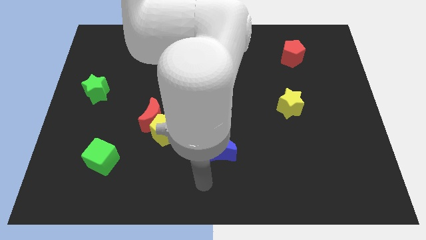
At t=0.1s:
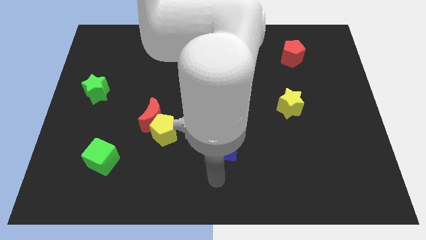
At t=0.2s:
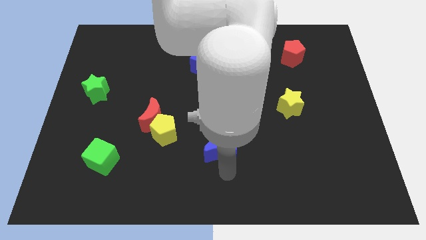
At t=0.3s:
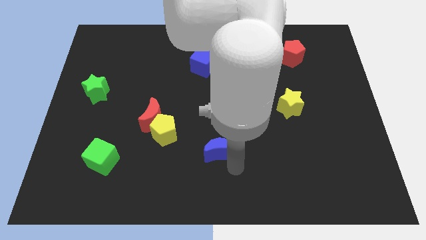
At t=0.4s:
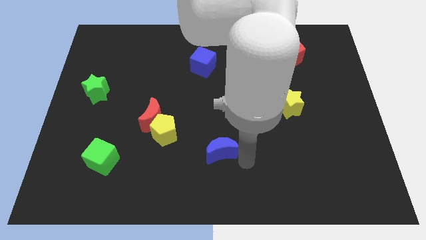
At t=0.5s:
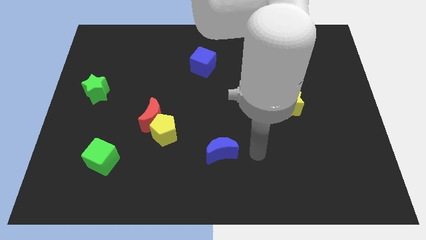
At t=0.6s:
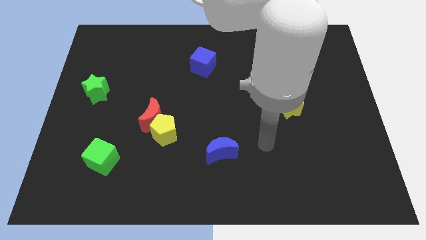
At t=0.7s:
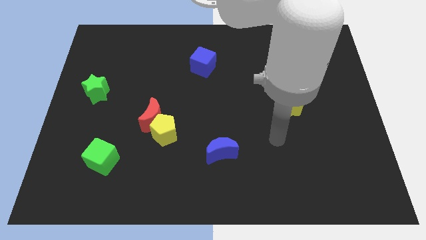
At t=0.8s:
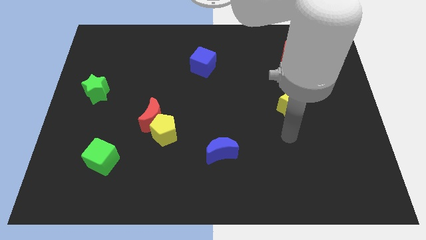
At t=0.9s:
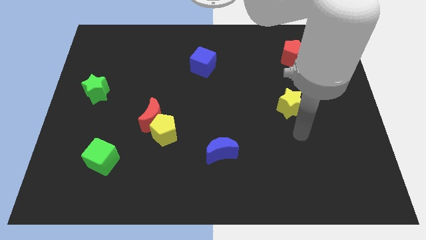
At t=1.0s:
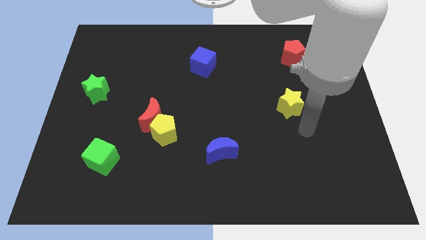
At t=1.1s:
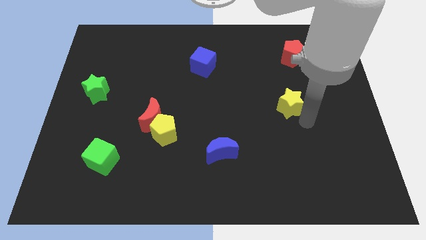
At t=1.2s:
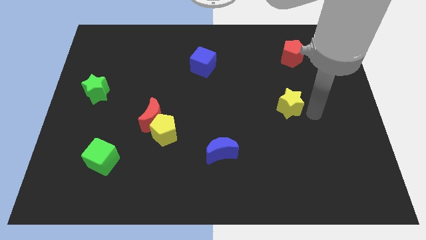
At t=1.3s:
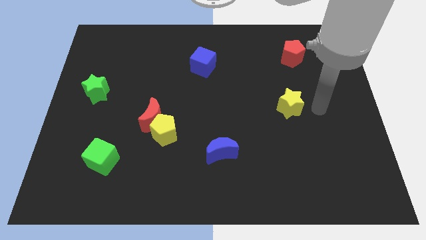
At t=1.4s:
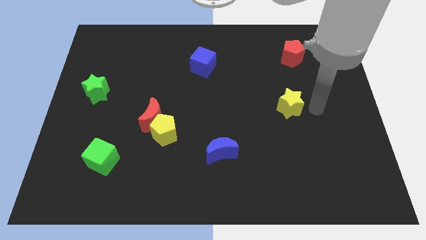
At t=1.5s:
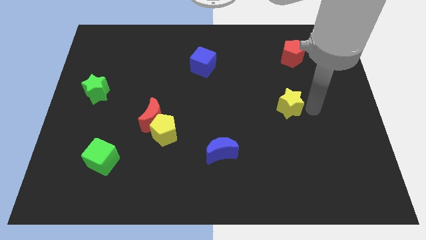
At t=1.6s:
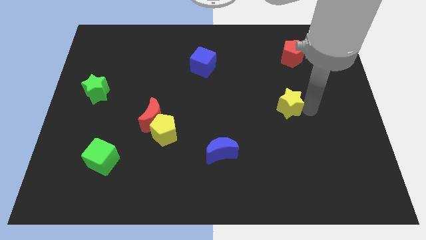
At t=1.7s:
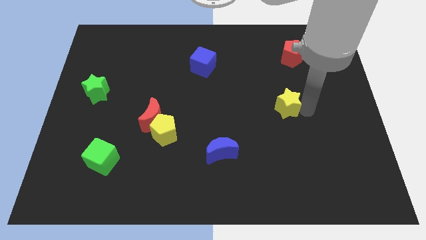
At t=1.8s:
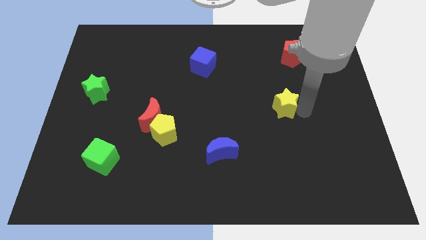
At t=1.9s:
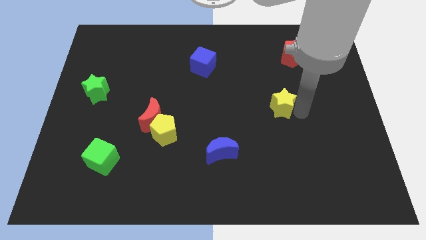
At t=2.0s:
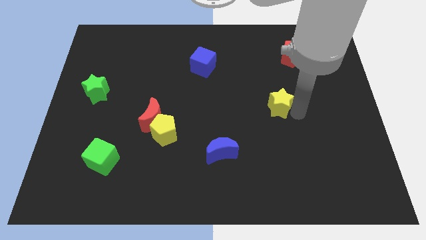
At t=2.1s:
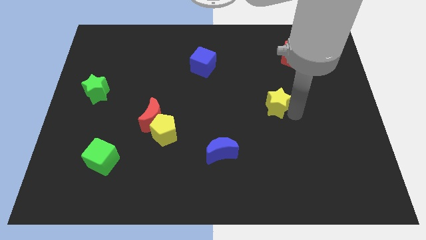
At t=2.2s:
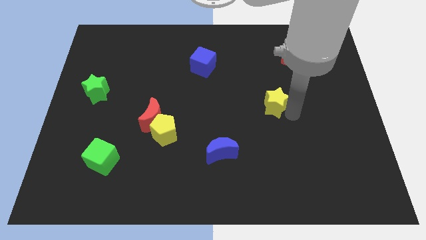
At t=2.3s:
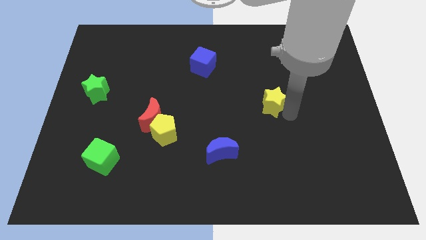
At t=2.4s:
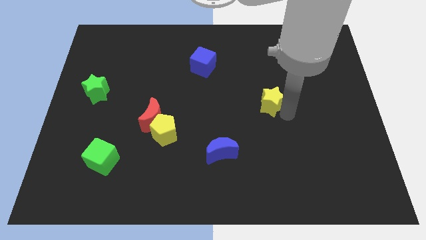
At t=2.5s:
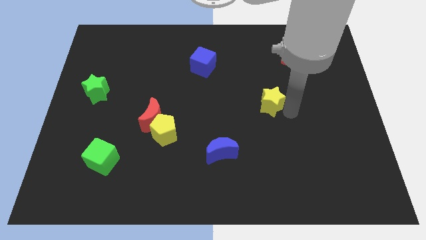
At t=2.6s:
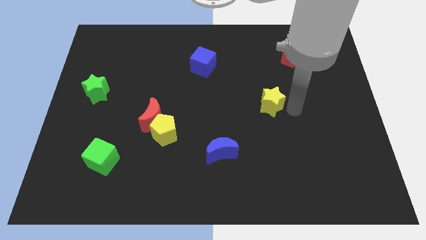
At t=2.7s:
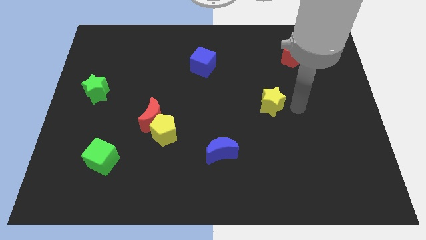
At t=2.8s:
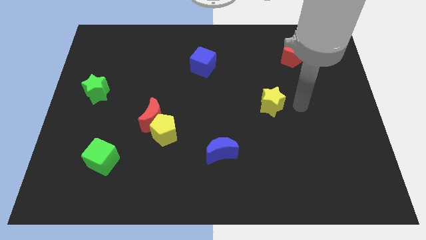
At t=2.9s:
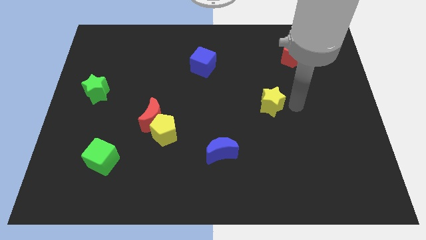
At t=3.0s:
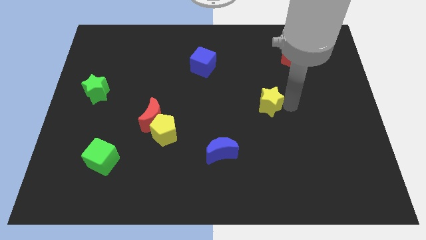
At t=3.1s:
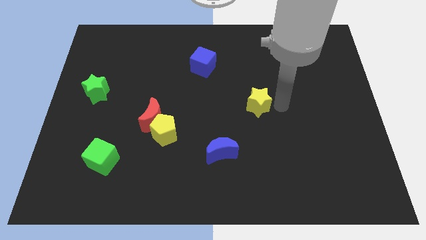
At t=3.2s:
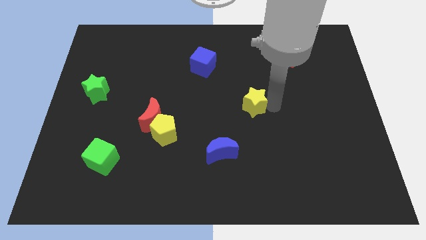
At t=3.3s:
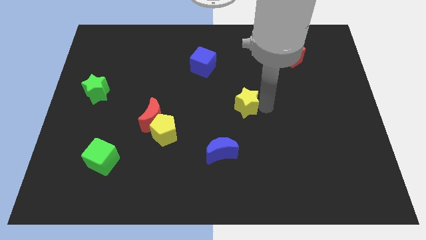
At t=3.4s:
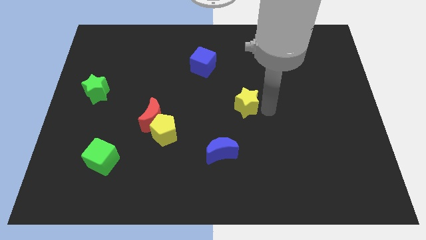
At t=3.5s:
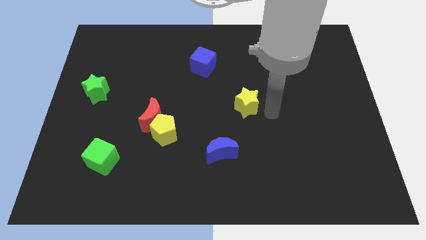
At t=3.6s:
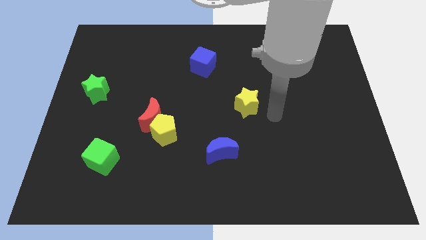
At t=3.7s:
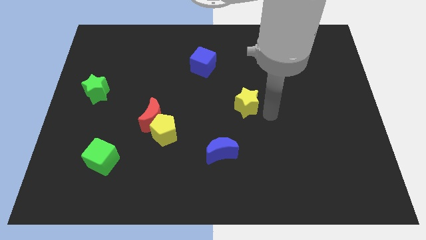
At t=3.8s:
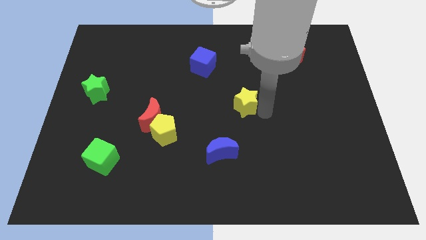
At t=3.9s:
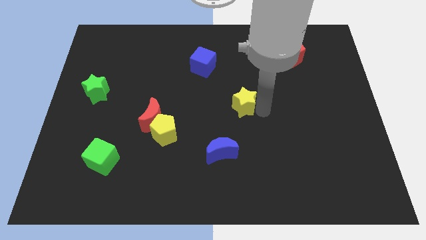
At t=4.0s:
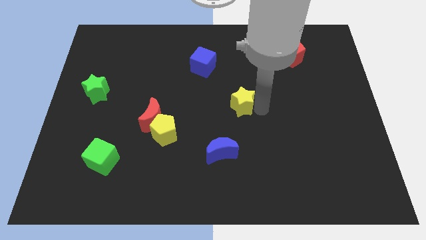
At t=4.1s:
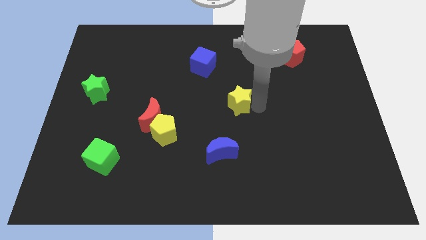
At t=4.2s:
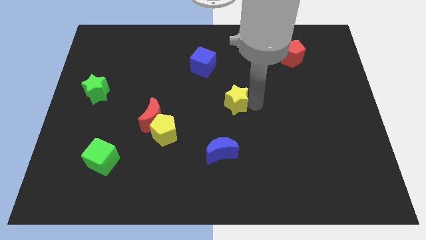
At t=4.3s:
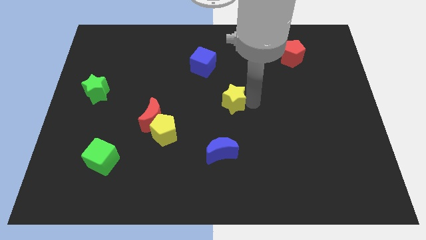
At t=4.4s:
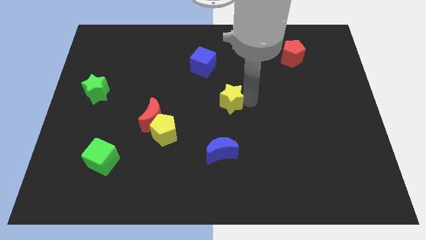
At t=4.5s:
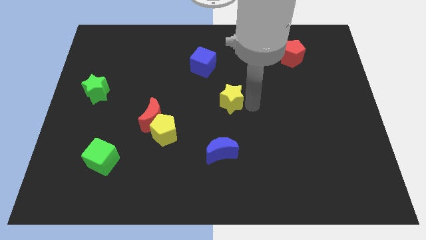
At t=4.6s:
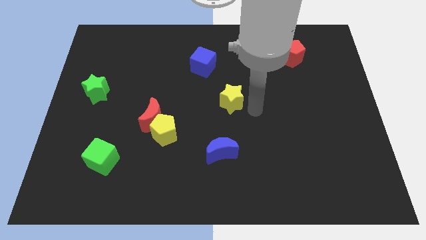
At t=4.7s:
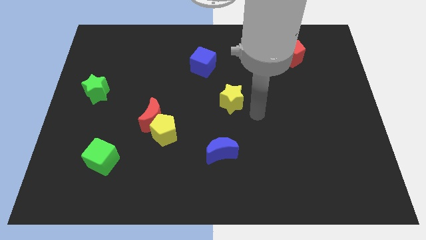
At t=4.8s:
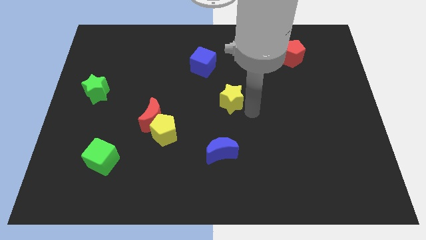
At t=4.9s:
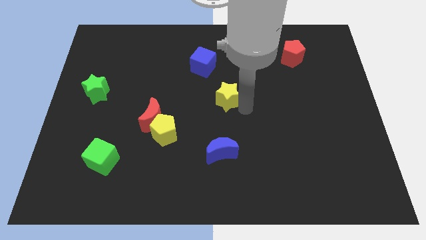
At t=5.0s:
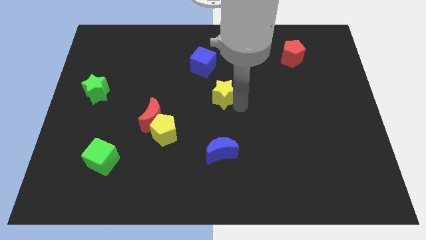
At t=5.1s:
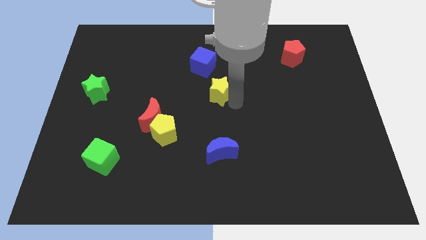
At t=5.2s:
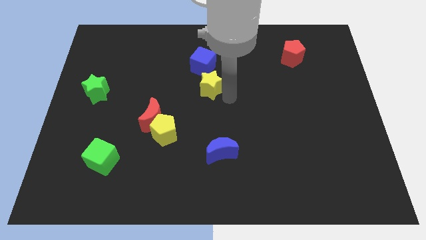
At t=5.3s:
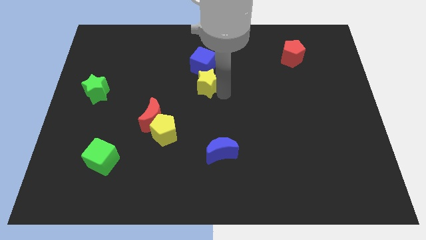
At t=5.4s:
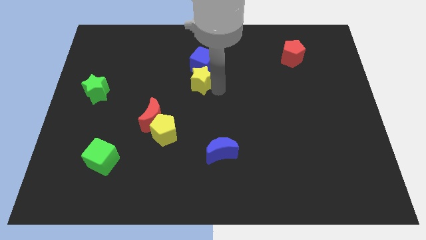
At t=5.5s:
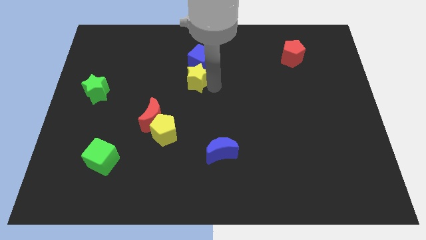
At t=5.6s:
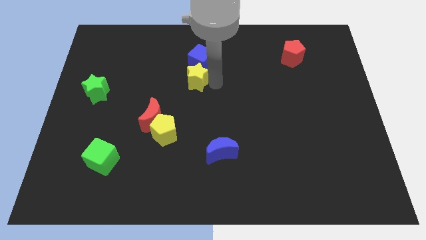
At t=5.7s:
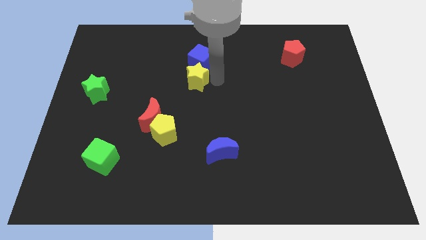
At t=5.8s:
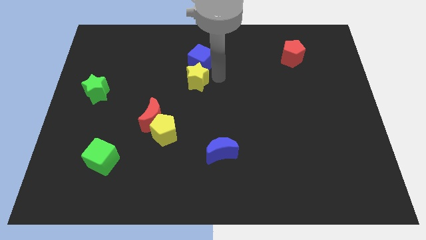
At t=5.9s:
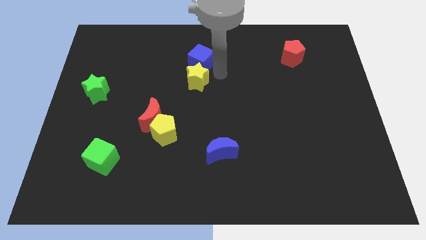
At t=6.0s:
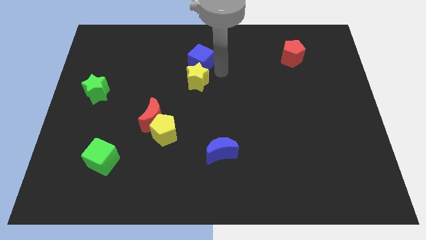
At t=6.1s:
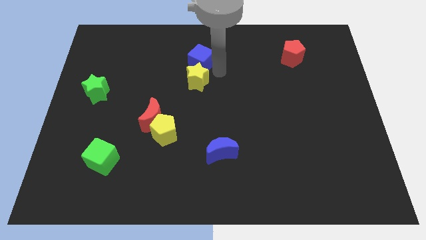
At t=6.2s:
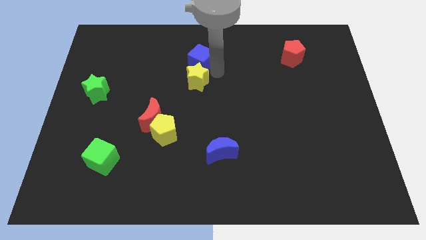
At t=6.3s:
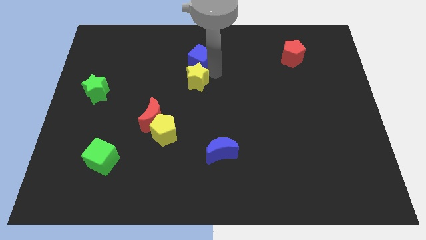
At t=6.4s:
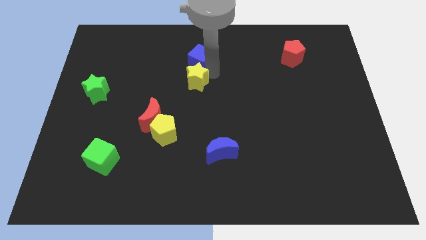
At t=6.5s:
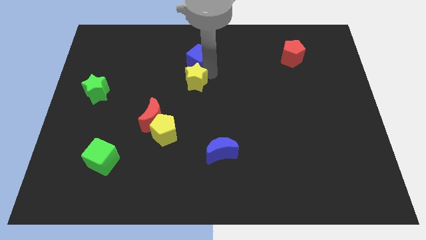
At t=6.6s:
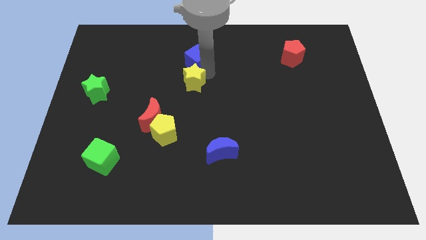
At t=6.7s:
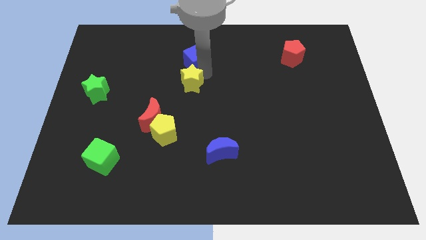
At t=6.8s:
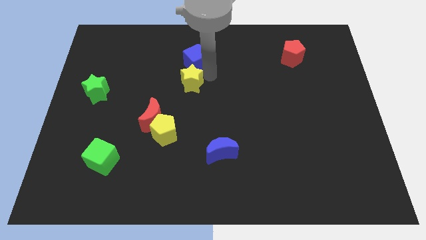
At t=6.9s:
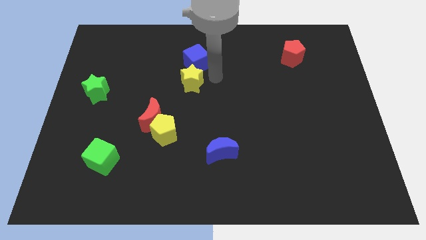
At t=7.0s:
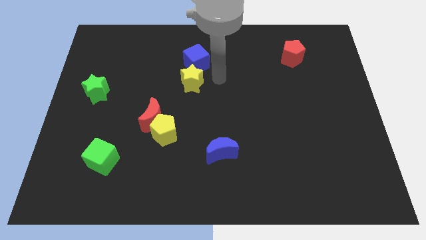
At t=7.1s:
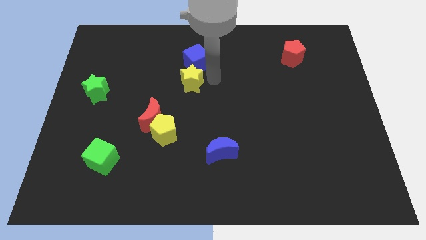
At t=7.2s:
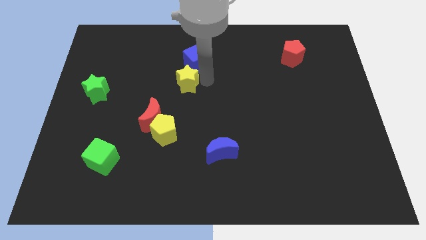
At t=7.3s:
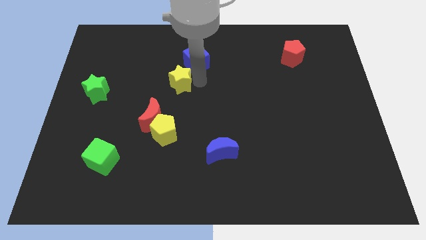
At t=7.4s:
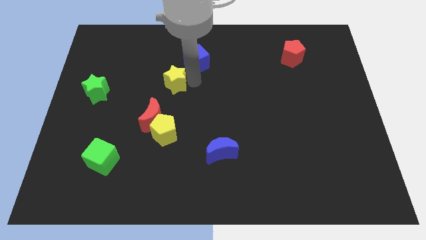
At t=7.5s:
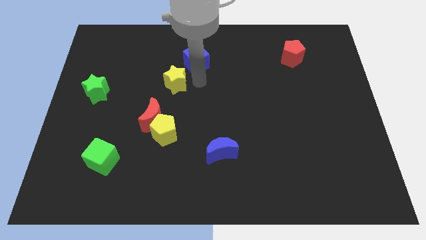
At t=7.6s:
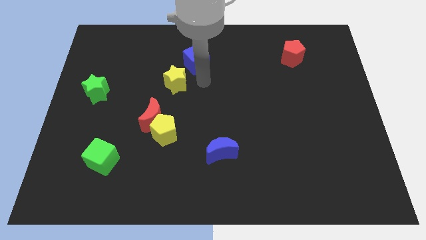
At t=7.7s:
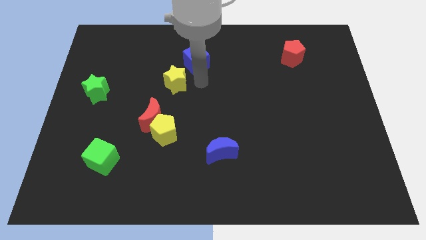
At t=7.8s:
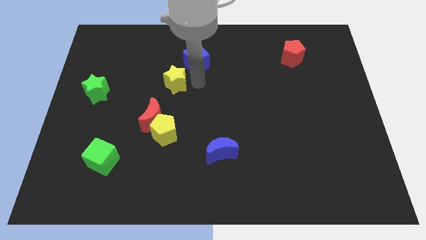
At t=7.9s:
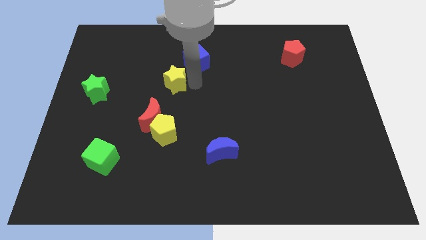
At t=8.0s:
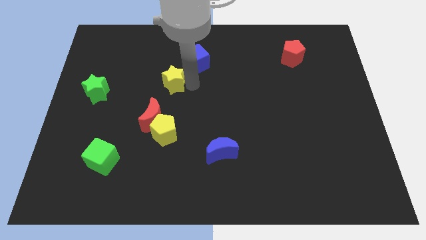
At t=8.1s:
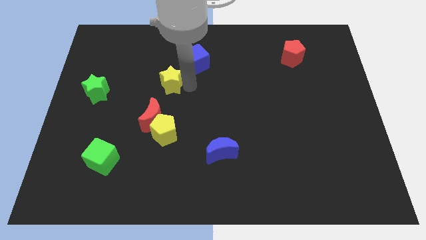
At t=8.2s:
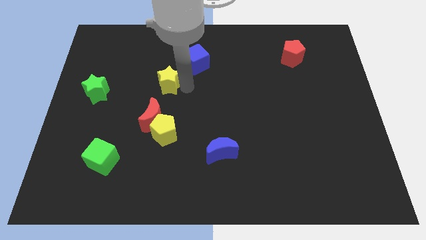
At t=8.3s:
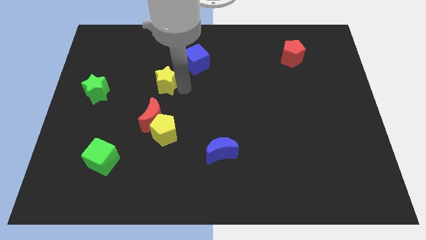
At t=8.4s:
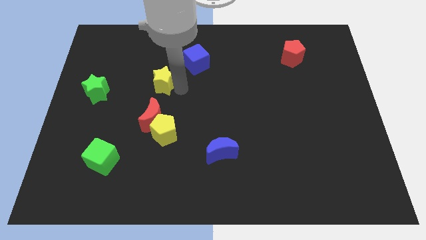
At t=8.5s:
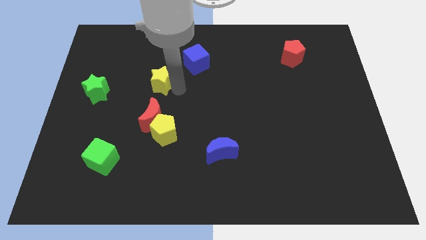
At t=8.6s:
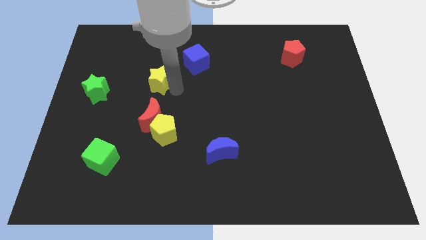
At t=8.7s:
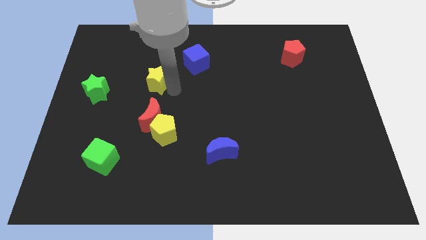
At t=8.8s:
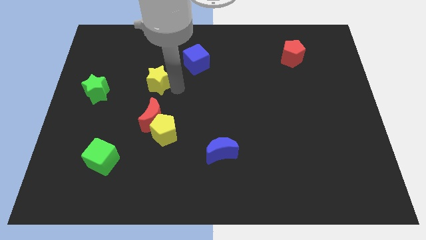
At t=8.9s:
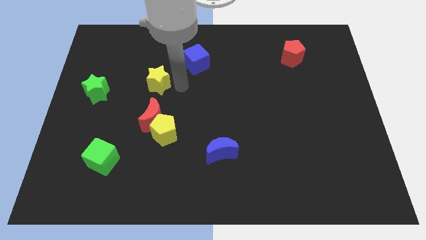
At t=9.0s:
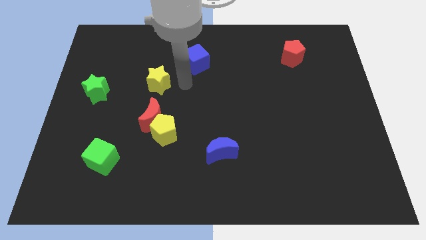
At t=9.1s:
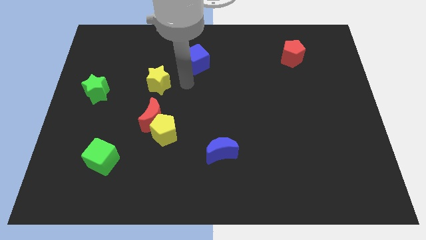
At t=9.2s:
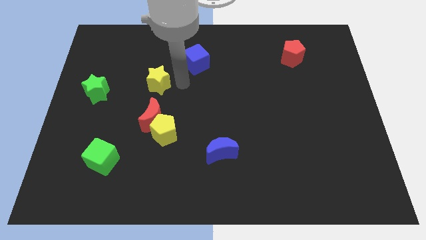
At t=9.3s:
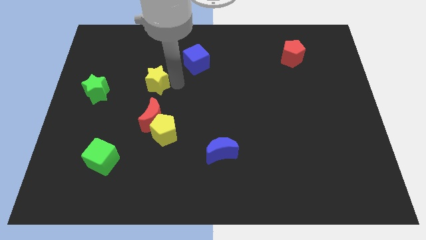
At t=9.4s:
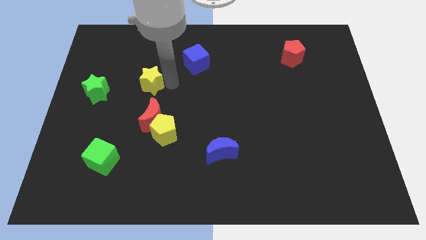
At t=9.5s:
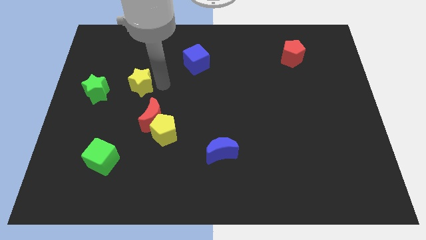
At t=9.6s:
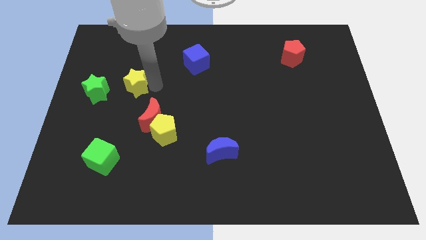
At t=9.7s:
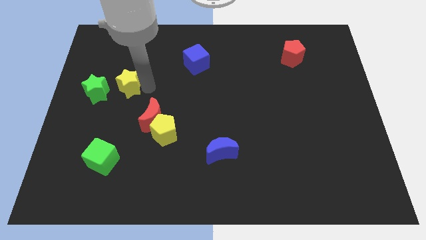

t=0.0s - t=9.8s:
put the yellow star diagonally up and to the right of the green star
